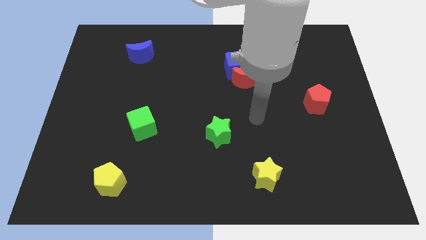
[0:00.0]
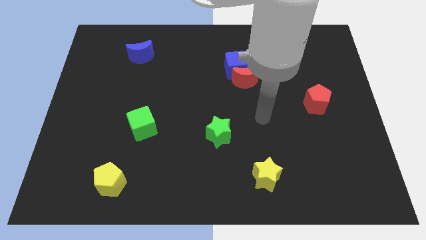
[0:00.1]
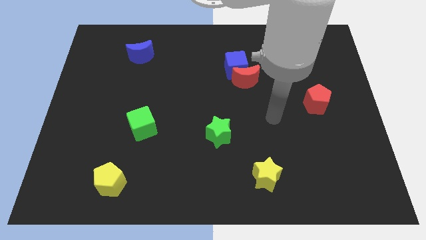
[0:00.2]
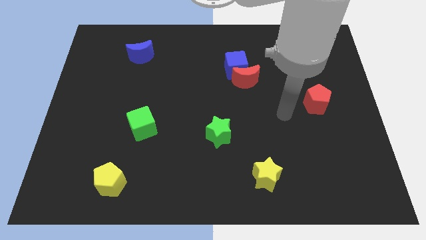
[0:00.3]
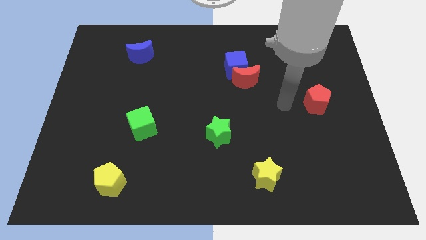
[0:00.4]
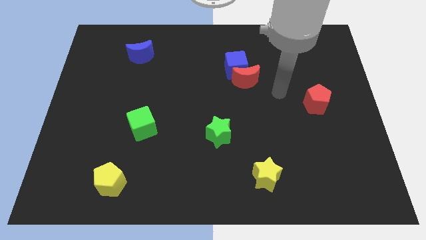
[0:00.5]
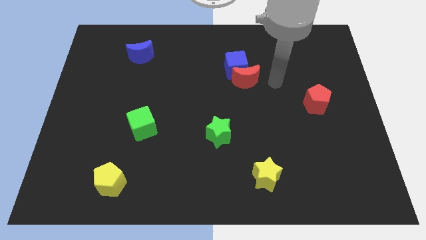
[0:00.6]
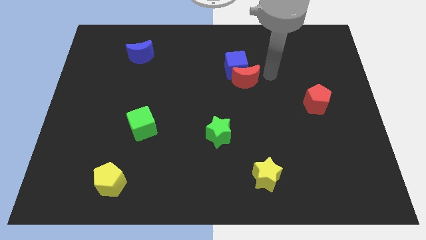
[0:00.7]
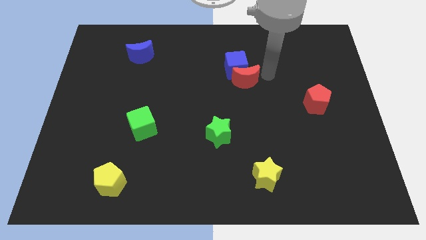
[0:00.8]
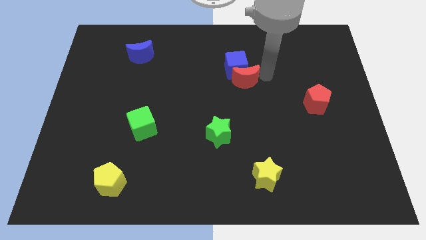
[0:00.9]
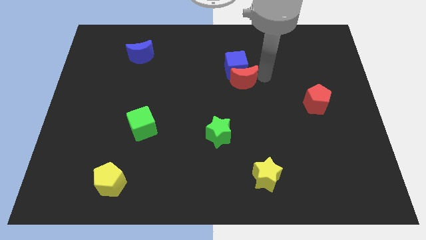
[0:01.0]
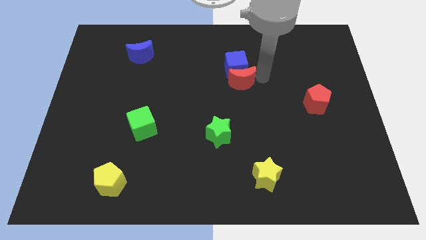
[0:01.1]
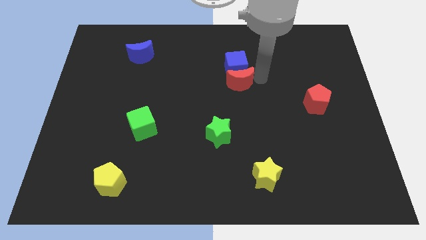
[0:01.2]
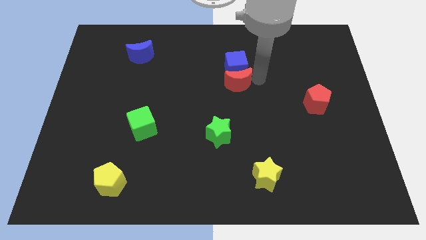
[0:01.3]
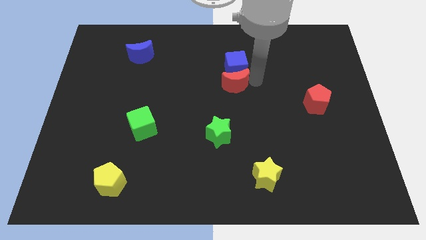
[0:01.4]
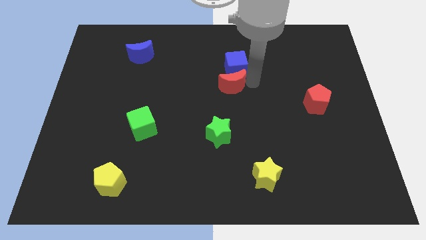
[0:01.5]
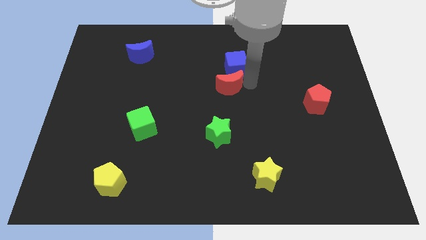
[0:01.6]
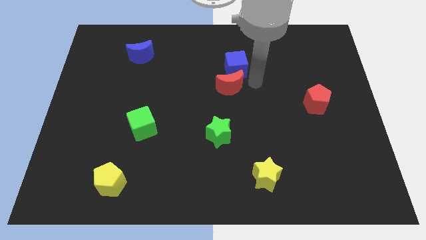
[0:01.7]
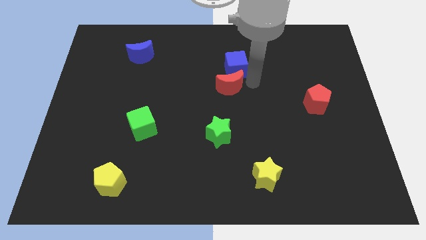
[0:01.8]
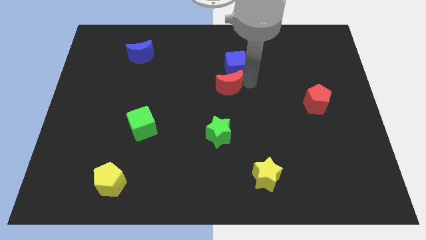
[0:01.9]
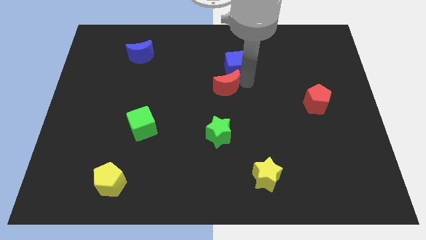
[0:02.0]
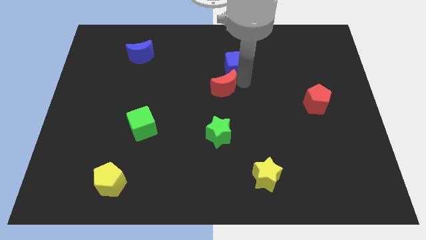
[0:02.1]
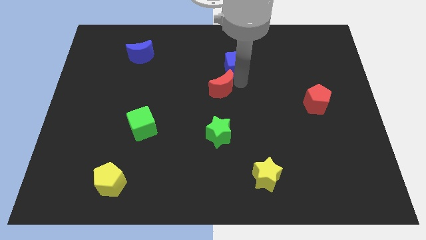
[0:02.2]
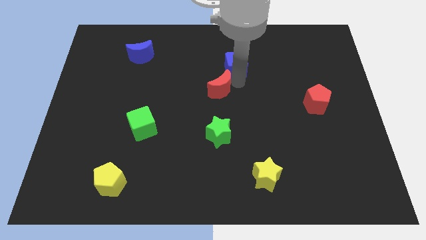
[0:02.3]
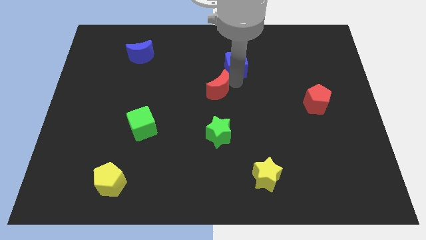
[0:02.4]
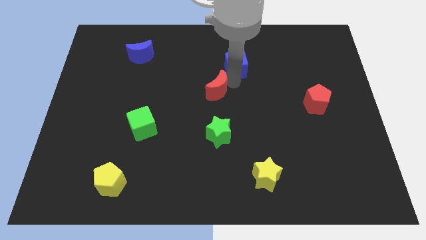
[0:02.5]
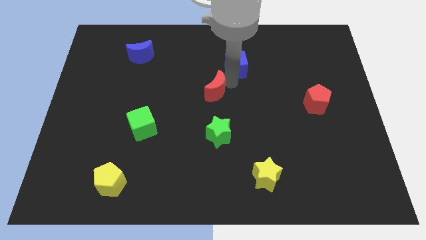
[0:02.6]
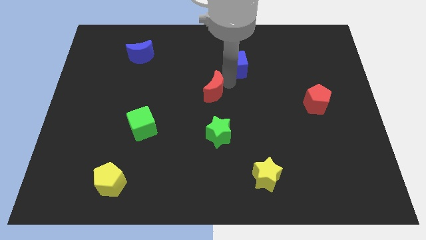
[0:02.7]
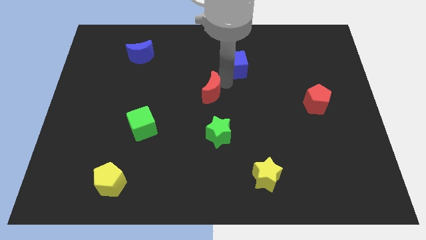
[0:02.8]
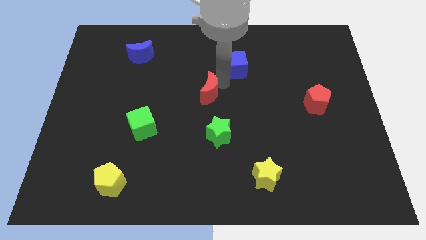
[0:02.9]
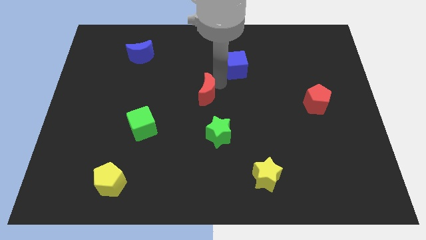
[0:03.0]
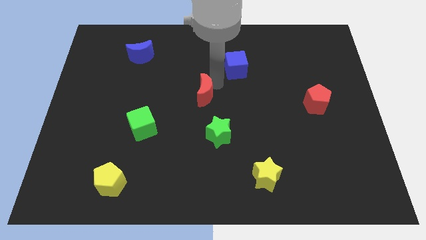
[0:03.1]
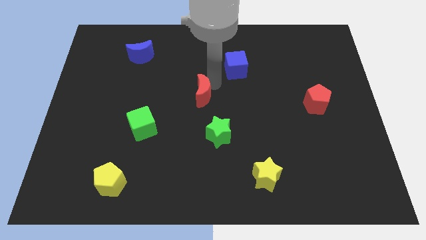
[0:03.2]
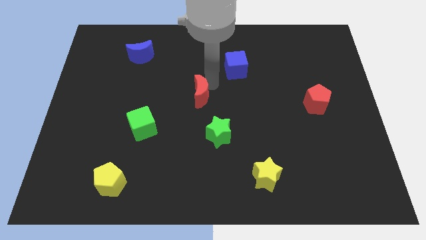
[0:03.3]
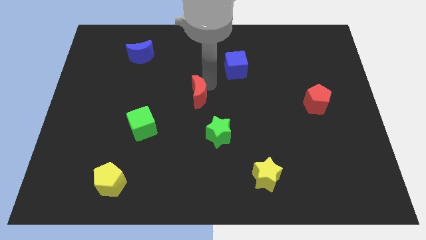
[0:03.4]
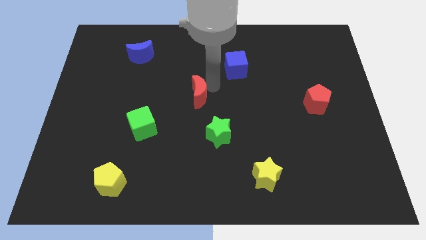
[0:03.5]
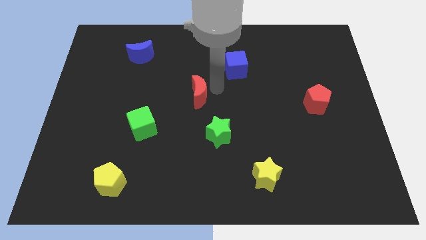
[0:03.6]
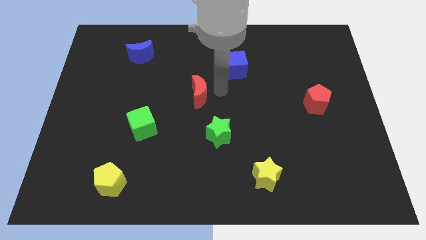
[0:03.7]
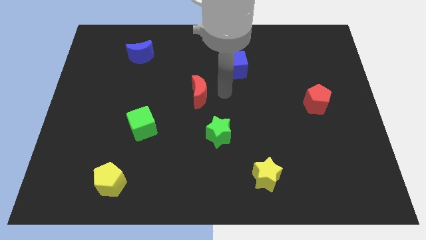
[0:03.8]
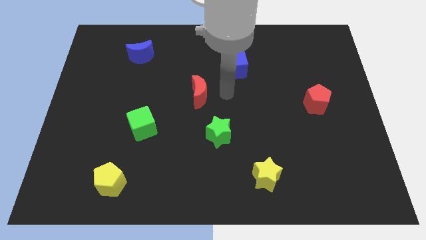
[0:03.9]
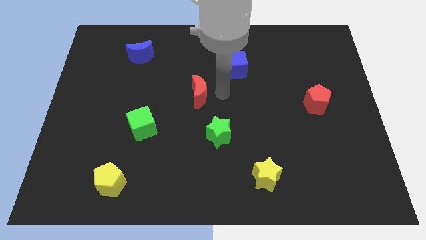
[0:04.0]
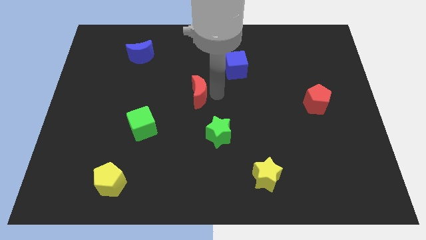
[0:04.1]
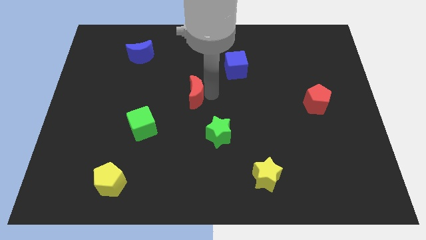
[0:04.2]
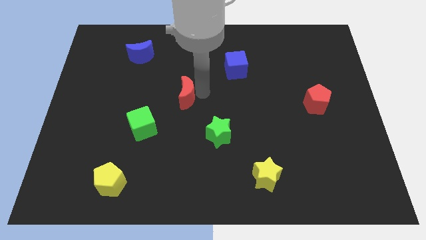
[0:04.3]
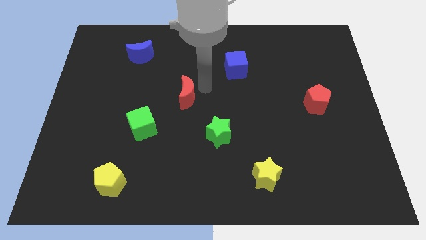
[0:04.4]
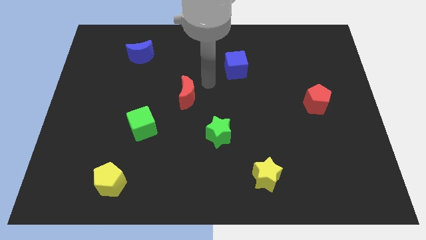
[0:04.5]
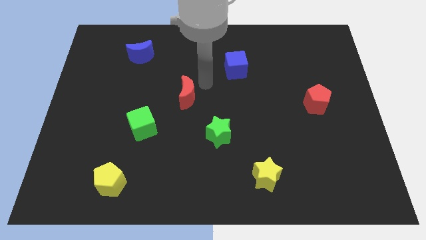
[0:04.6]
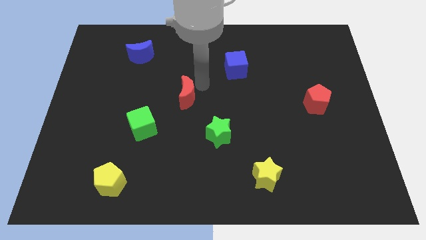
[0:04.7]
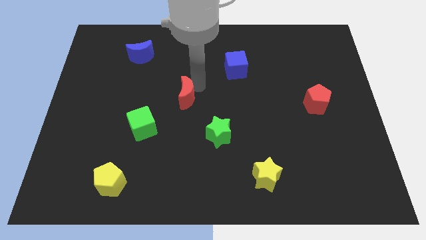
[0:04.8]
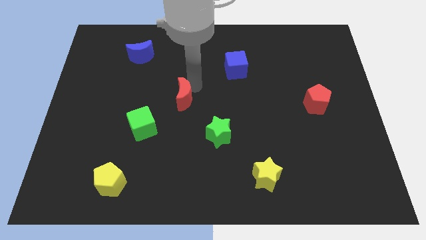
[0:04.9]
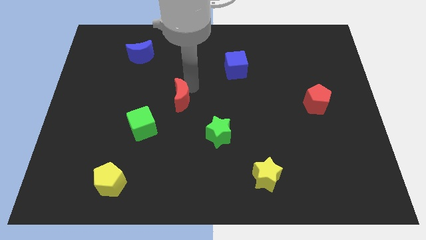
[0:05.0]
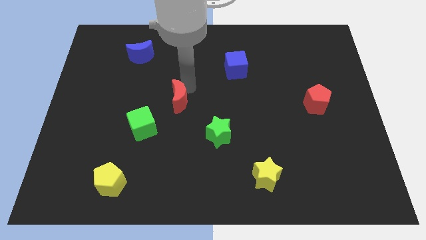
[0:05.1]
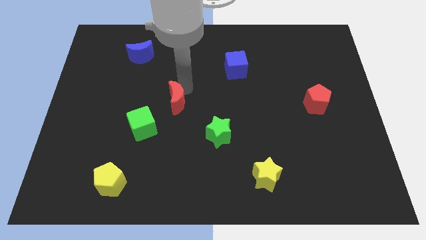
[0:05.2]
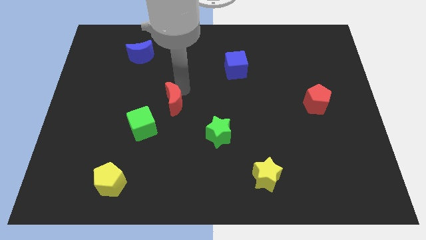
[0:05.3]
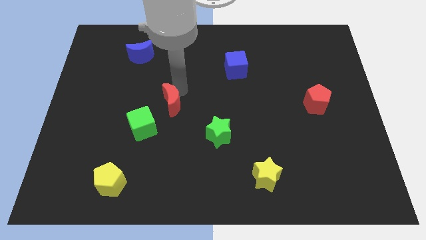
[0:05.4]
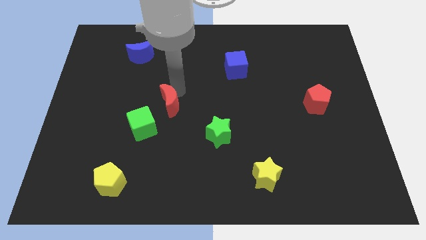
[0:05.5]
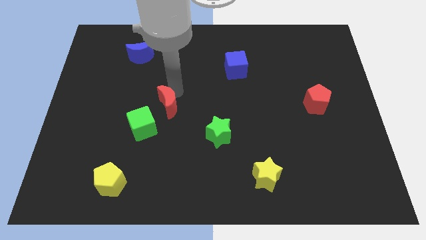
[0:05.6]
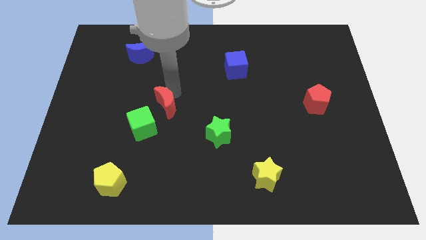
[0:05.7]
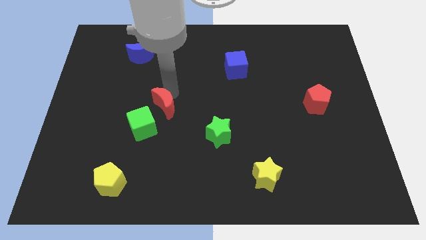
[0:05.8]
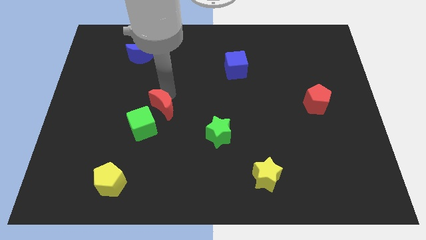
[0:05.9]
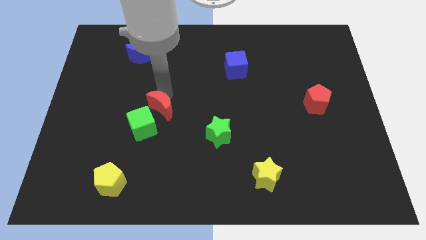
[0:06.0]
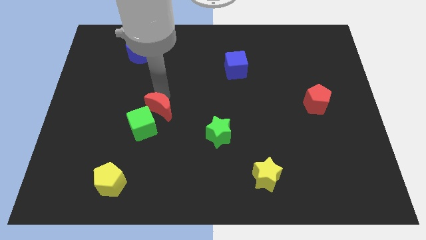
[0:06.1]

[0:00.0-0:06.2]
slide the red moon next to the green cube

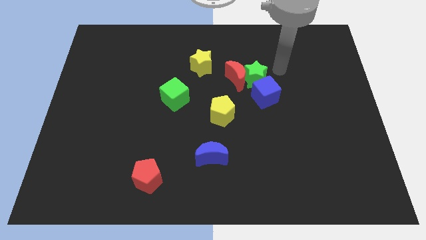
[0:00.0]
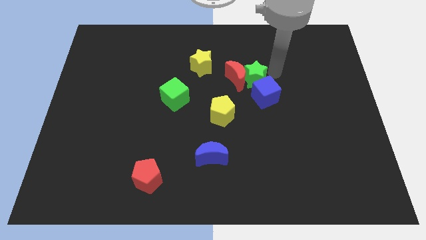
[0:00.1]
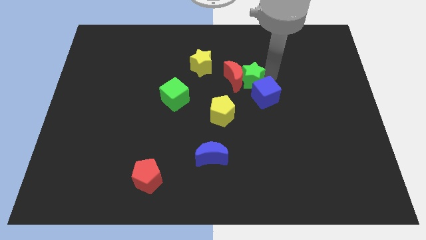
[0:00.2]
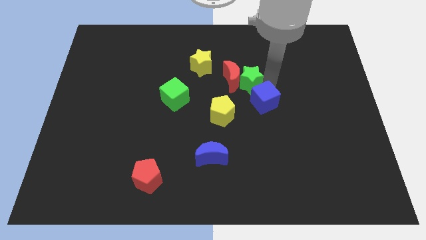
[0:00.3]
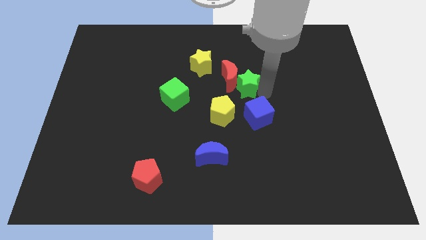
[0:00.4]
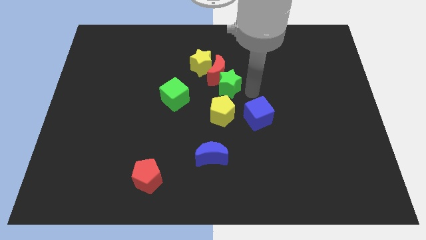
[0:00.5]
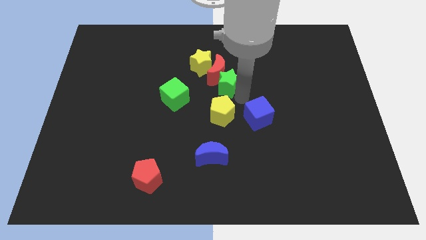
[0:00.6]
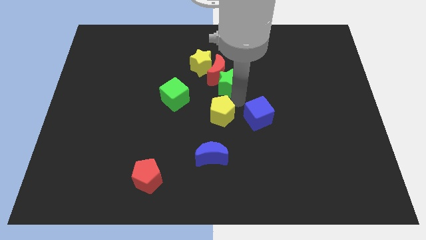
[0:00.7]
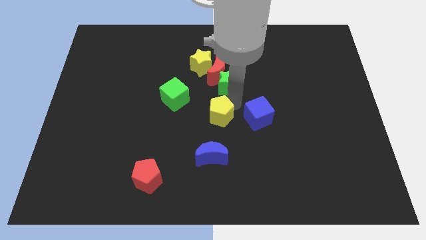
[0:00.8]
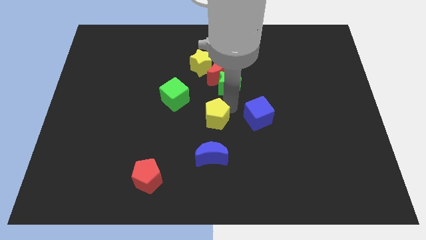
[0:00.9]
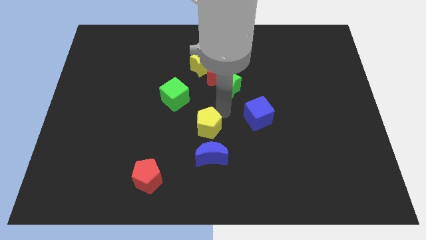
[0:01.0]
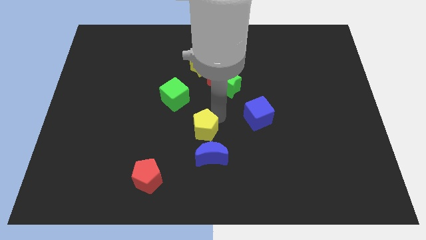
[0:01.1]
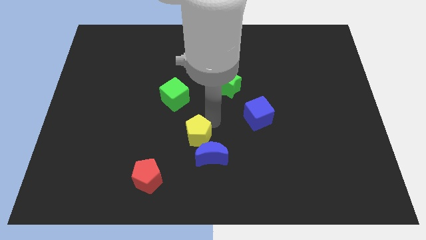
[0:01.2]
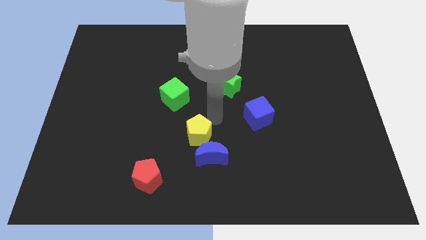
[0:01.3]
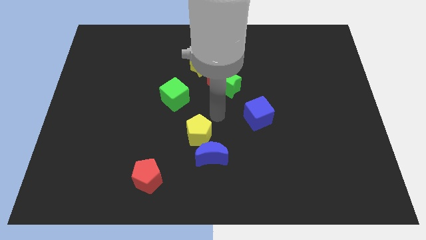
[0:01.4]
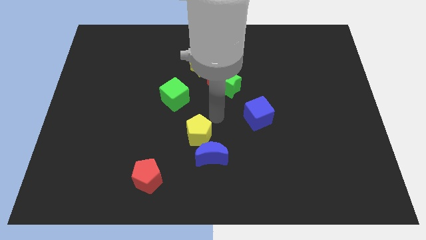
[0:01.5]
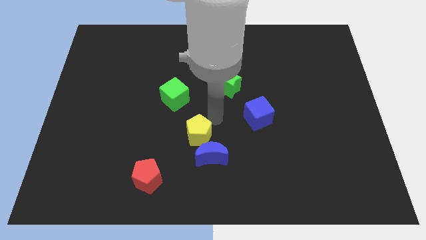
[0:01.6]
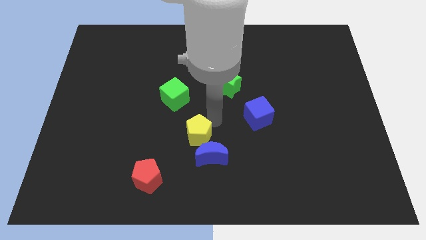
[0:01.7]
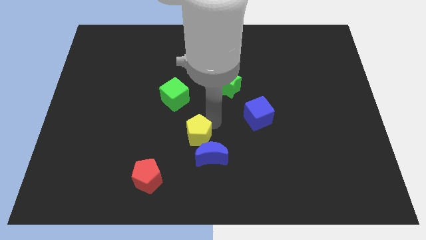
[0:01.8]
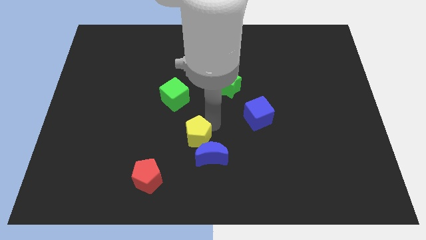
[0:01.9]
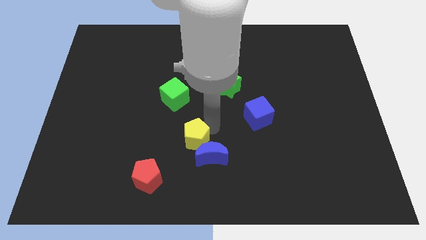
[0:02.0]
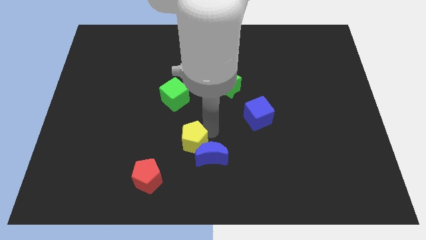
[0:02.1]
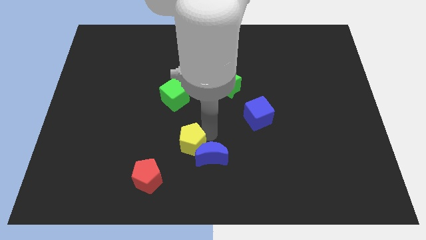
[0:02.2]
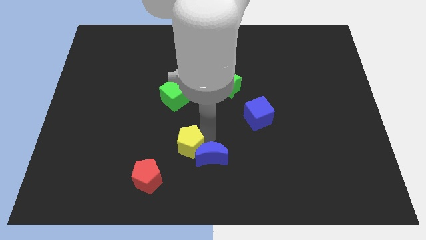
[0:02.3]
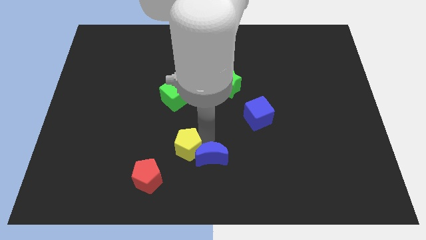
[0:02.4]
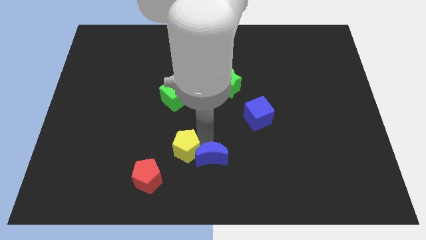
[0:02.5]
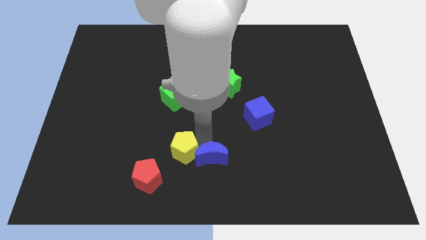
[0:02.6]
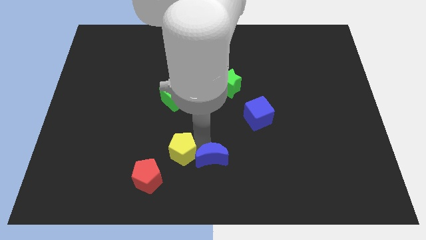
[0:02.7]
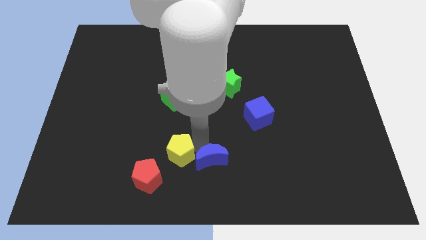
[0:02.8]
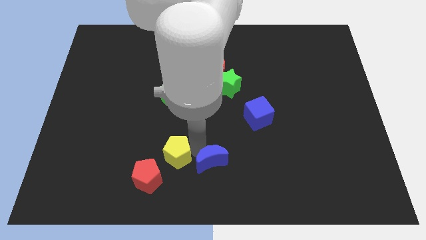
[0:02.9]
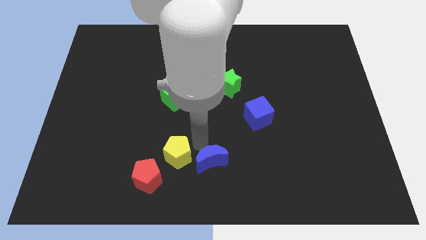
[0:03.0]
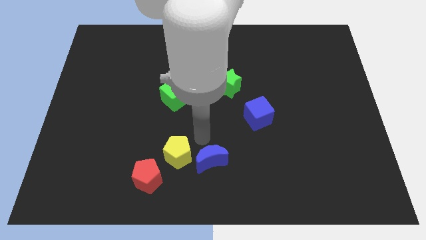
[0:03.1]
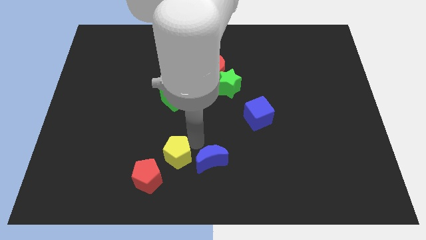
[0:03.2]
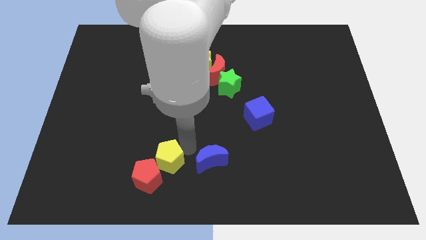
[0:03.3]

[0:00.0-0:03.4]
move the yellow pentagon next to the red pentagon
